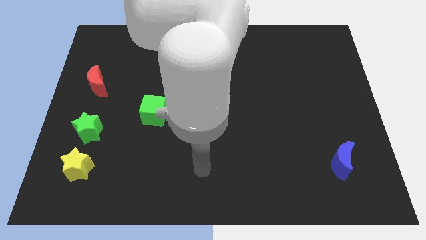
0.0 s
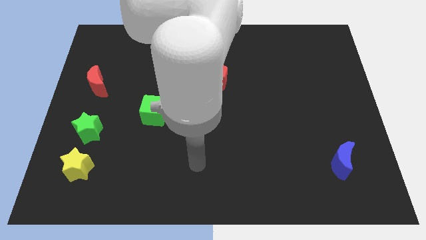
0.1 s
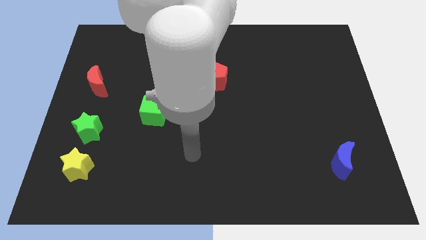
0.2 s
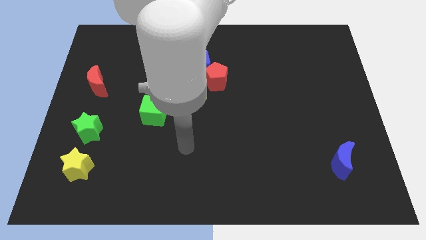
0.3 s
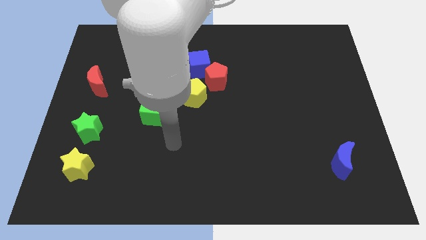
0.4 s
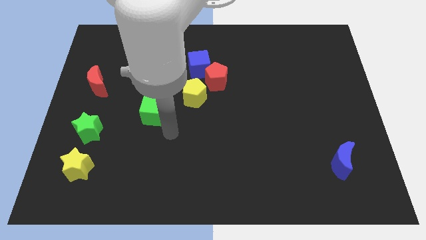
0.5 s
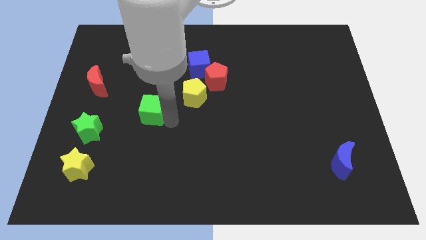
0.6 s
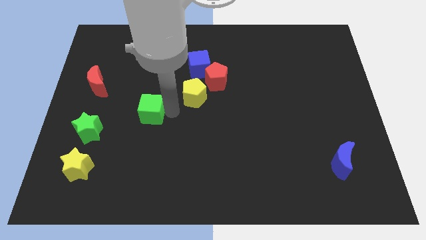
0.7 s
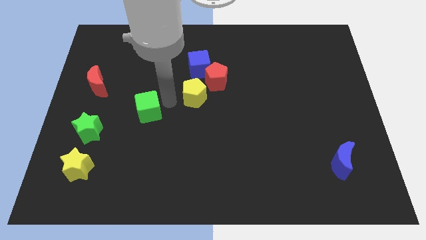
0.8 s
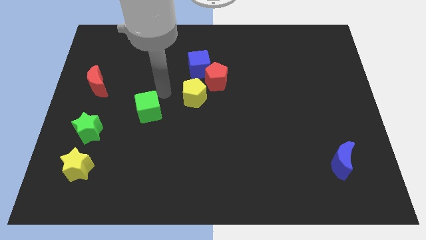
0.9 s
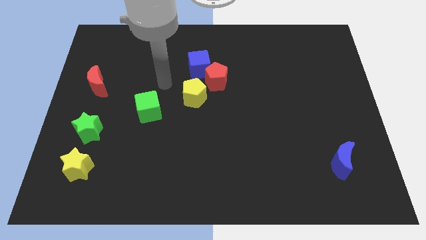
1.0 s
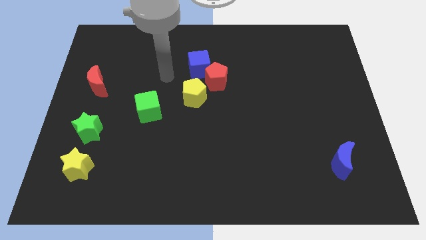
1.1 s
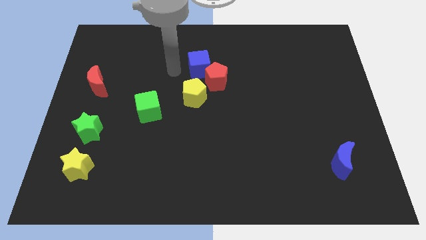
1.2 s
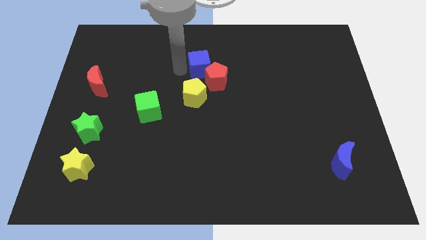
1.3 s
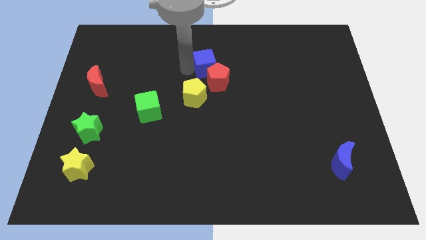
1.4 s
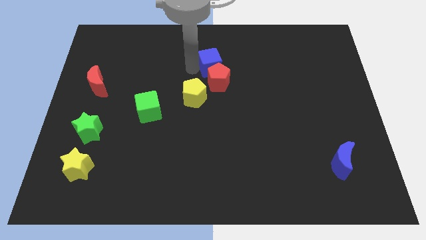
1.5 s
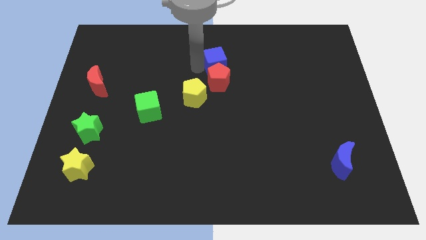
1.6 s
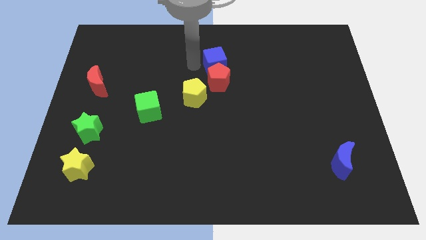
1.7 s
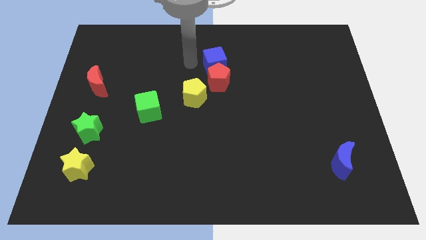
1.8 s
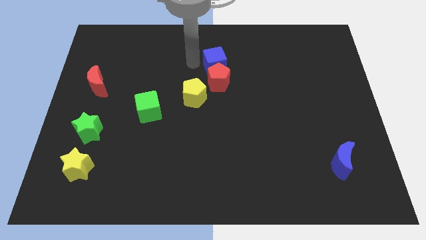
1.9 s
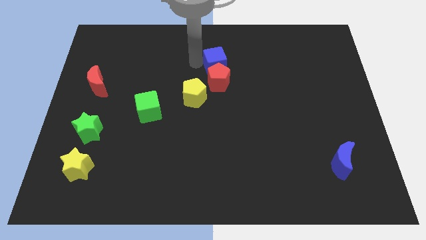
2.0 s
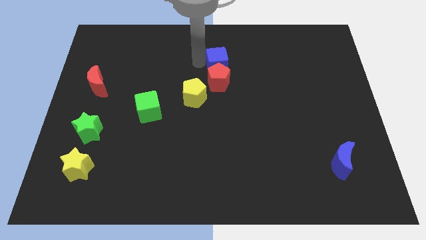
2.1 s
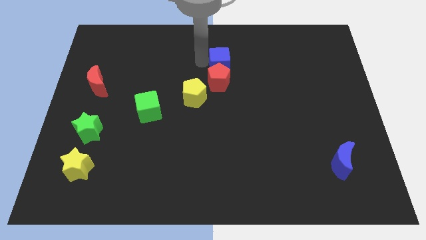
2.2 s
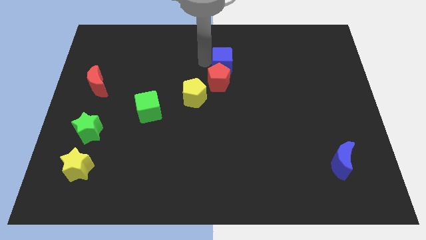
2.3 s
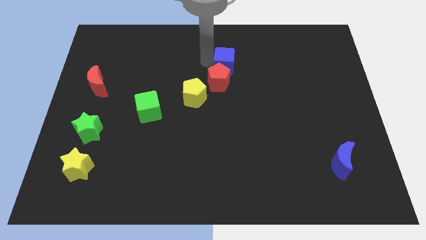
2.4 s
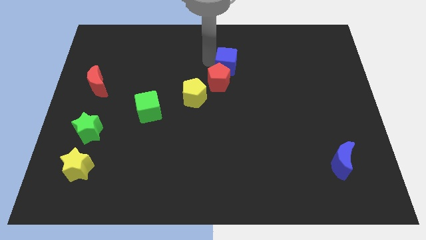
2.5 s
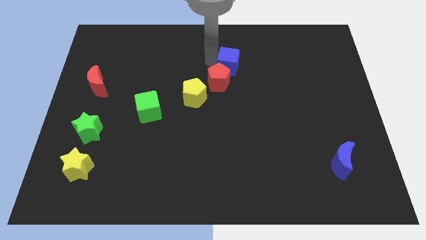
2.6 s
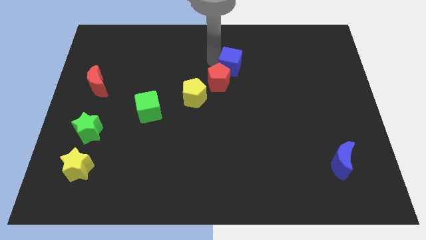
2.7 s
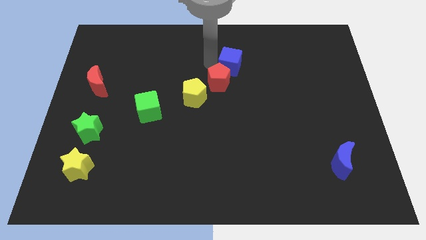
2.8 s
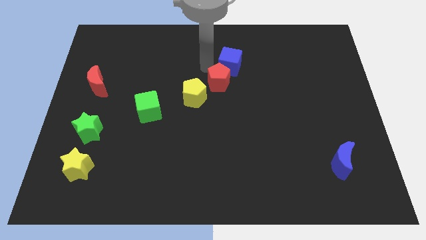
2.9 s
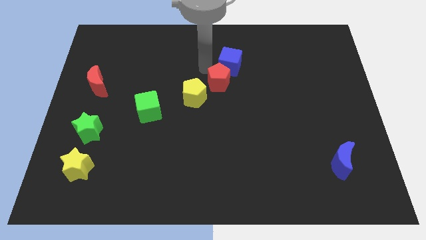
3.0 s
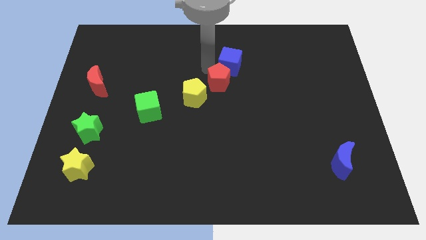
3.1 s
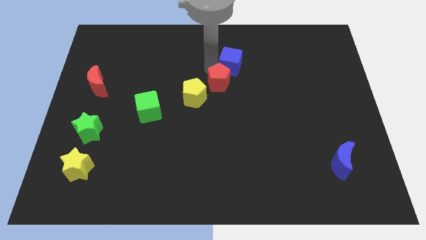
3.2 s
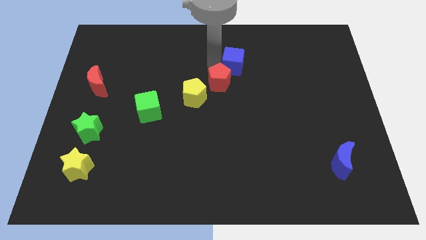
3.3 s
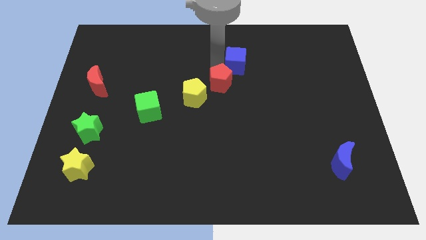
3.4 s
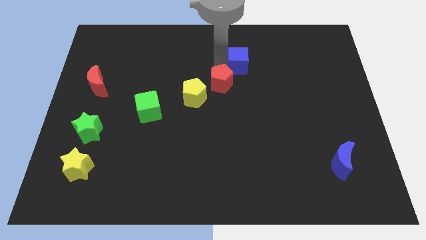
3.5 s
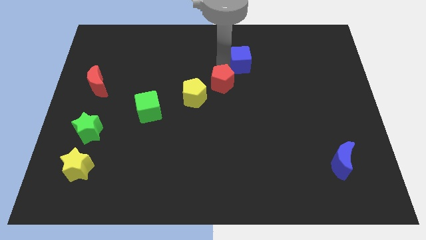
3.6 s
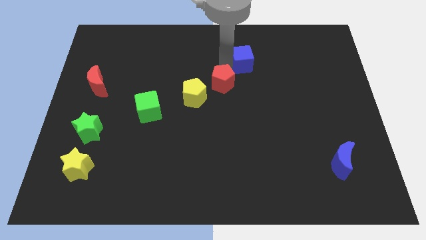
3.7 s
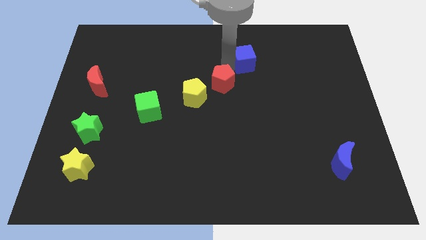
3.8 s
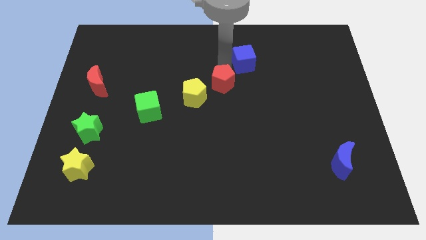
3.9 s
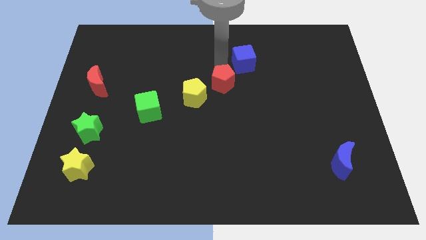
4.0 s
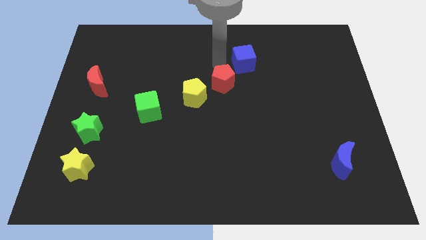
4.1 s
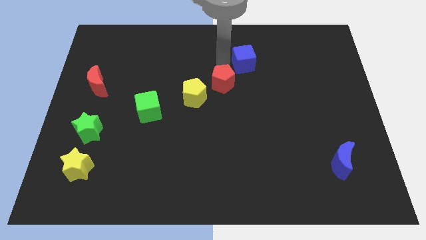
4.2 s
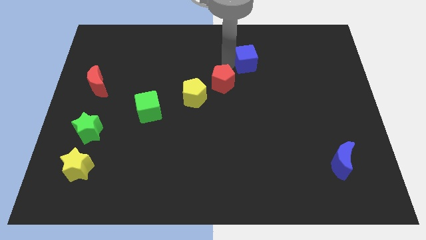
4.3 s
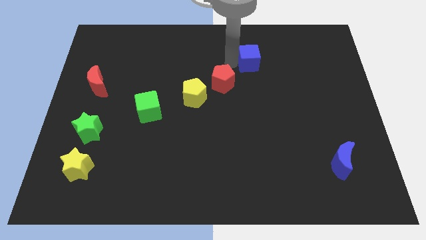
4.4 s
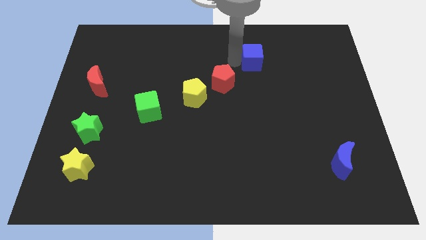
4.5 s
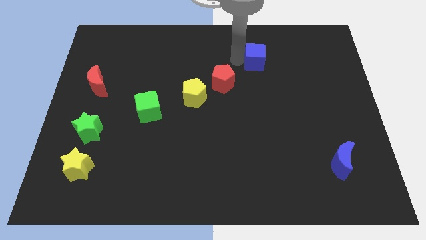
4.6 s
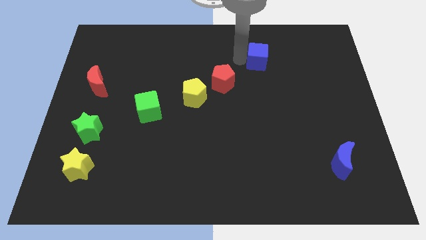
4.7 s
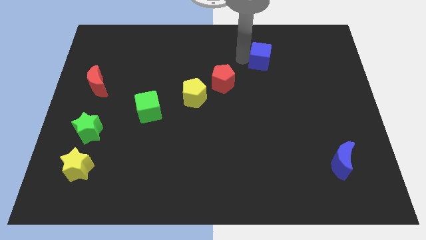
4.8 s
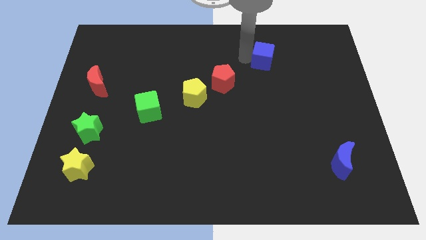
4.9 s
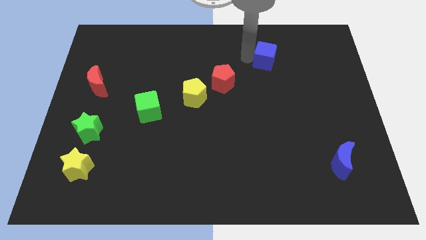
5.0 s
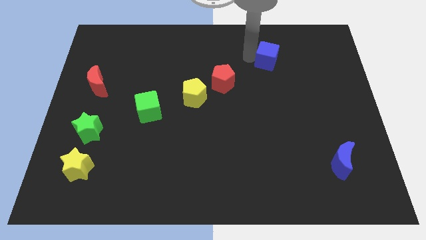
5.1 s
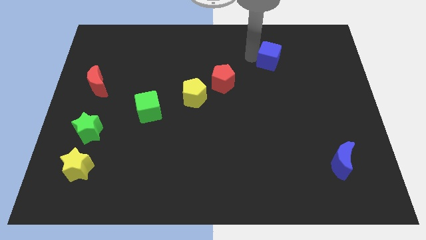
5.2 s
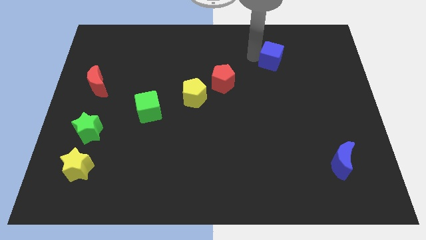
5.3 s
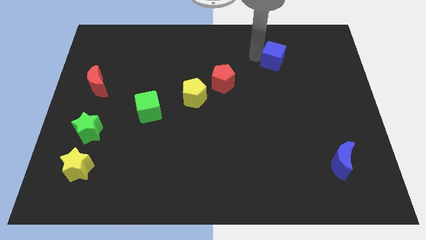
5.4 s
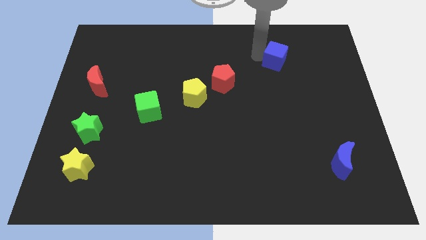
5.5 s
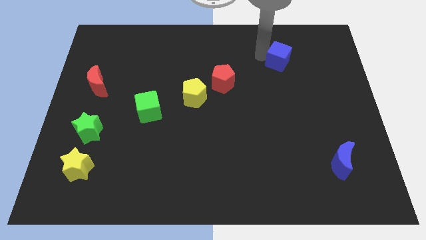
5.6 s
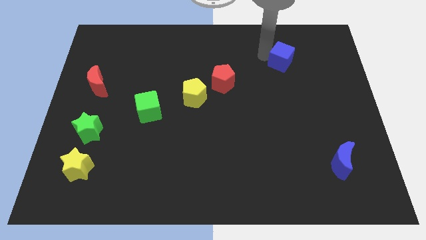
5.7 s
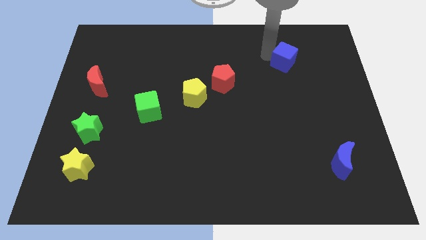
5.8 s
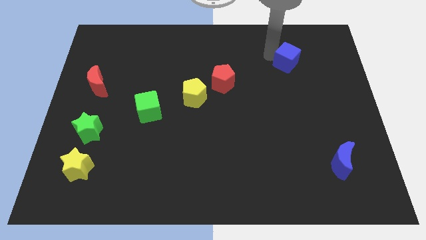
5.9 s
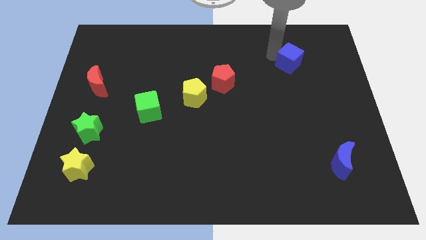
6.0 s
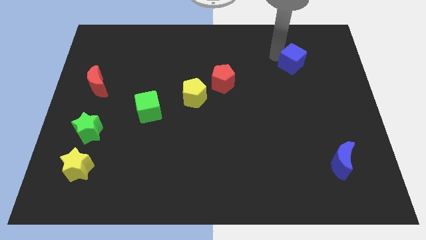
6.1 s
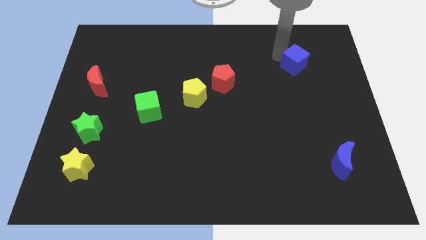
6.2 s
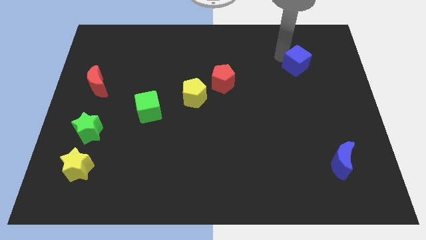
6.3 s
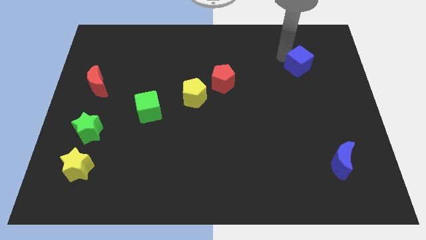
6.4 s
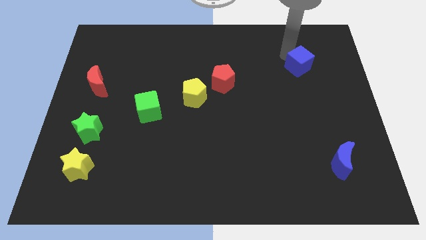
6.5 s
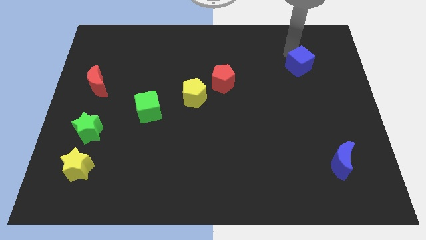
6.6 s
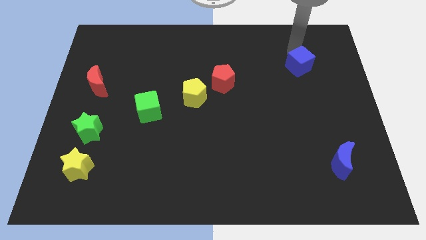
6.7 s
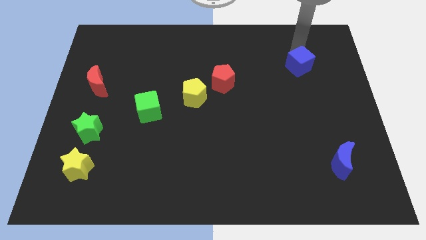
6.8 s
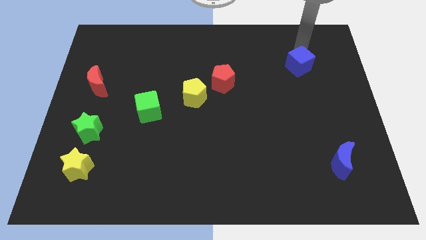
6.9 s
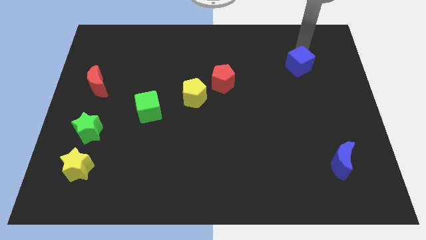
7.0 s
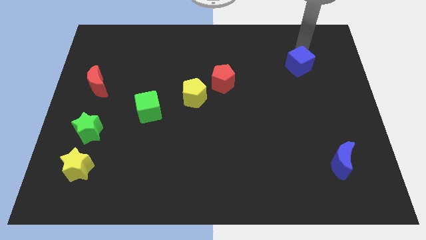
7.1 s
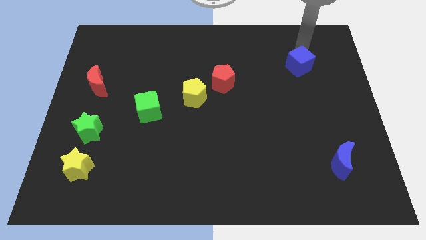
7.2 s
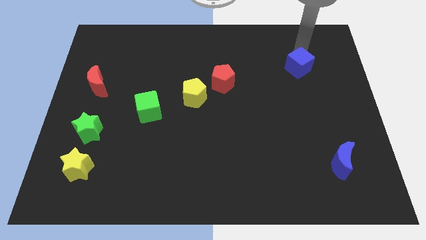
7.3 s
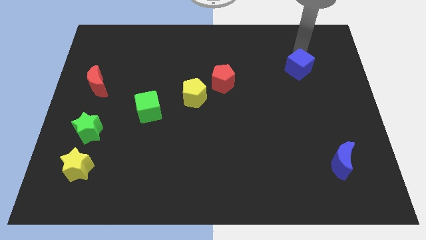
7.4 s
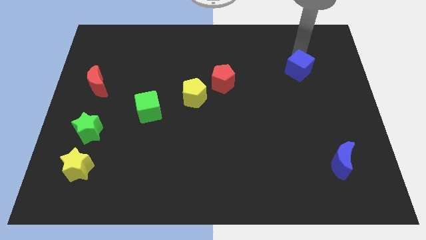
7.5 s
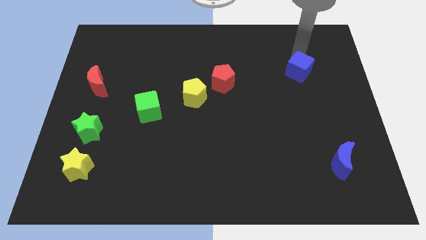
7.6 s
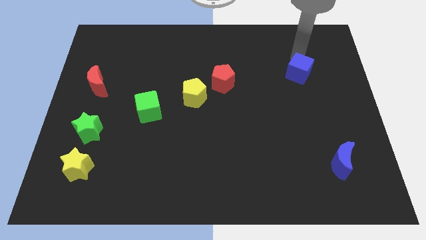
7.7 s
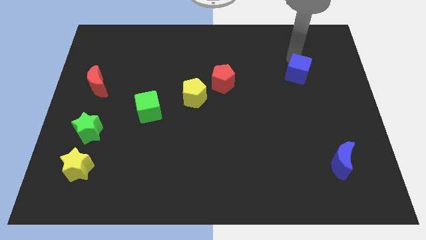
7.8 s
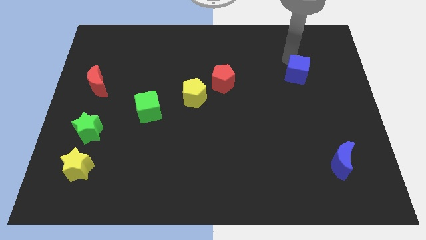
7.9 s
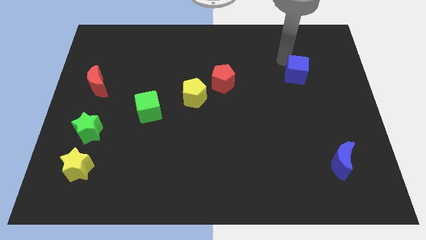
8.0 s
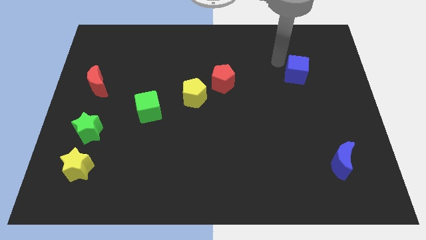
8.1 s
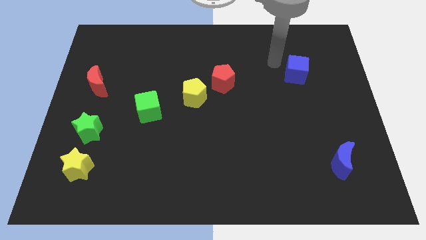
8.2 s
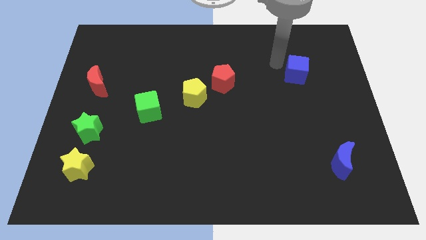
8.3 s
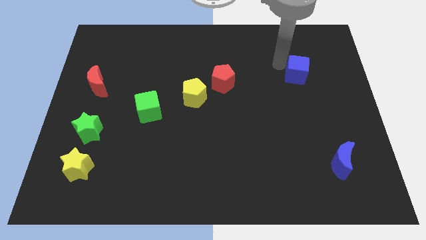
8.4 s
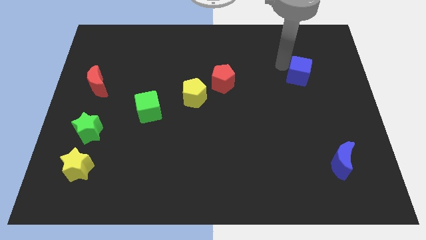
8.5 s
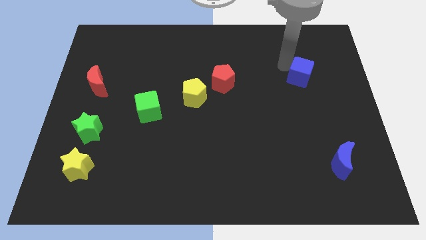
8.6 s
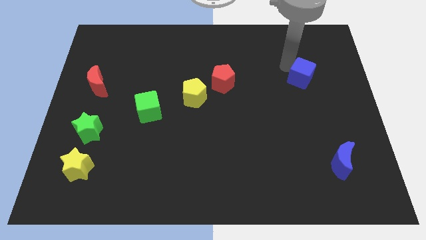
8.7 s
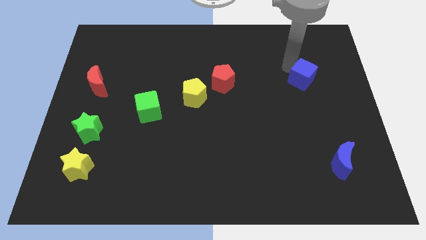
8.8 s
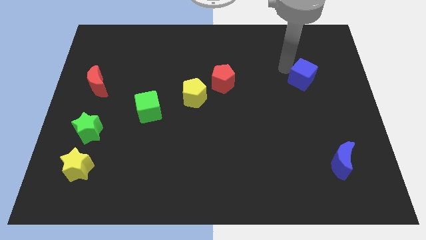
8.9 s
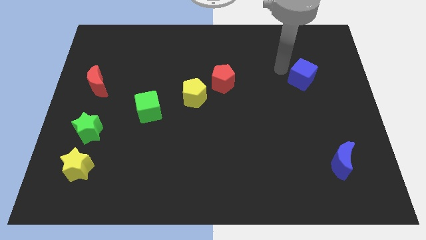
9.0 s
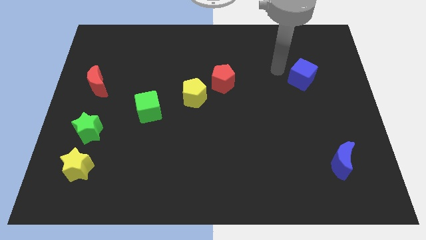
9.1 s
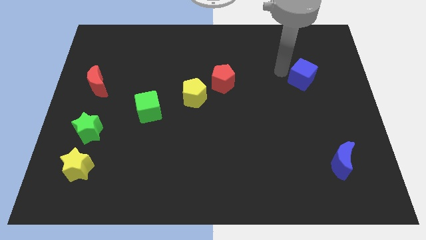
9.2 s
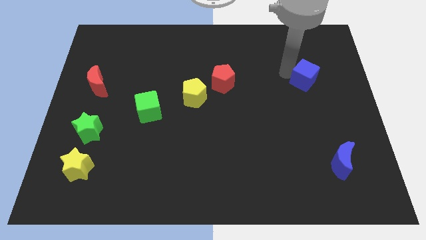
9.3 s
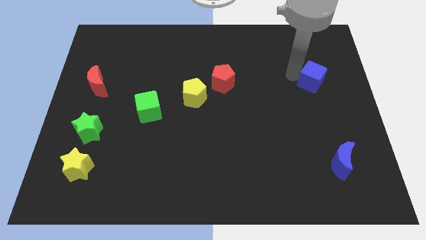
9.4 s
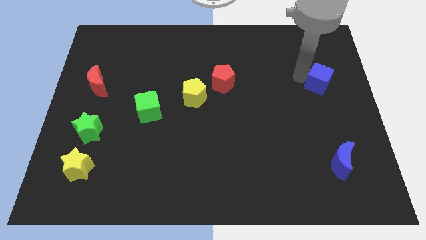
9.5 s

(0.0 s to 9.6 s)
put the blue cube to the right side of the board
